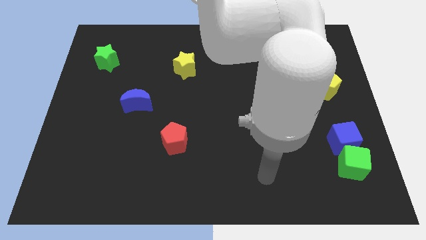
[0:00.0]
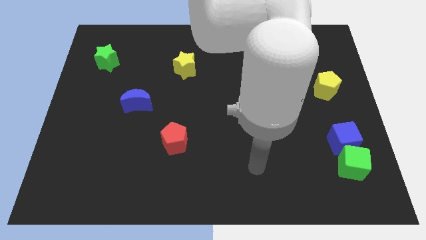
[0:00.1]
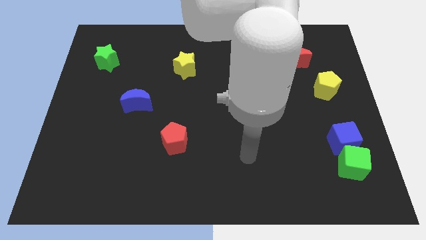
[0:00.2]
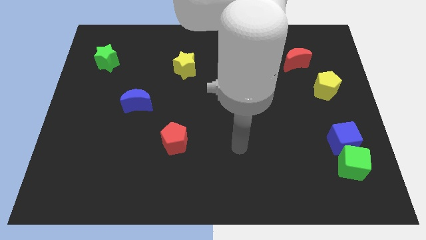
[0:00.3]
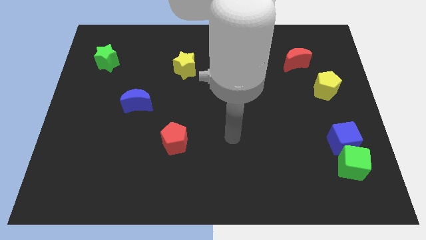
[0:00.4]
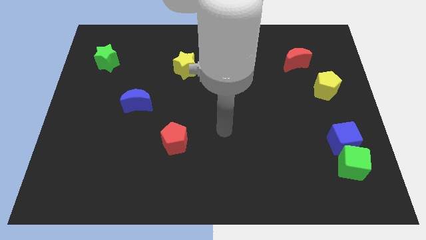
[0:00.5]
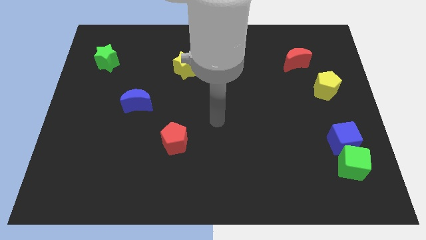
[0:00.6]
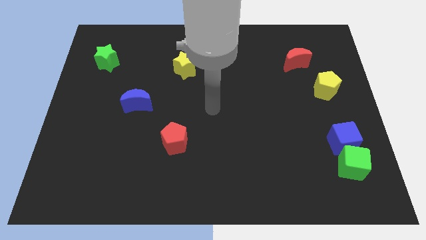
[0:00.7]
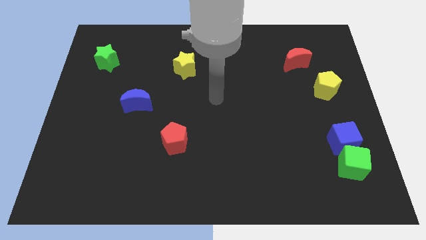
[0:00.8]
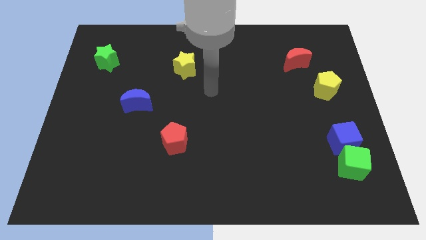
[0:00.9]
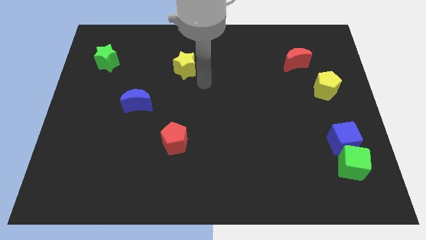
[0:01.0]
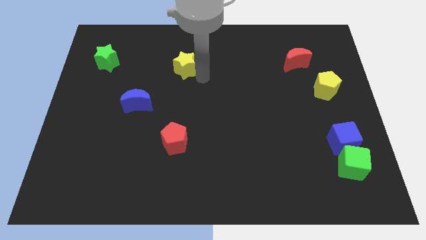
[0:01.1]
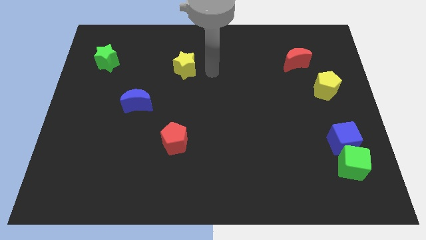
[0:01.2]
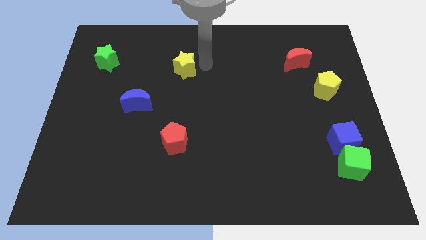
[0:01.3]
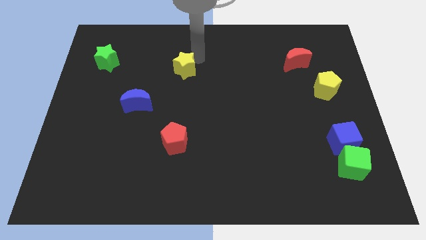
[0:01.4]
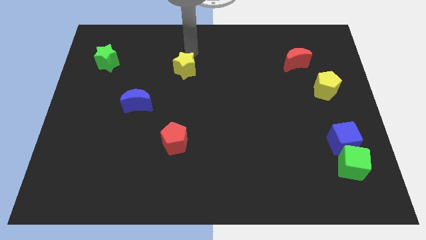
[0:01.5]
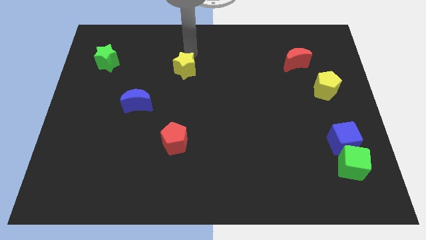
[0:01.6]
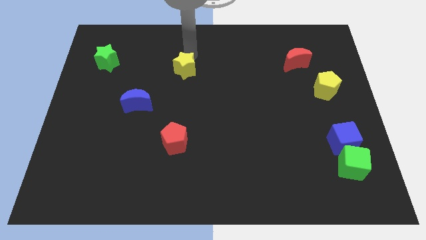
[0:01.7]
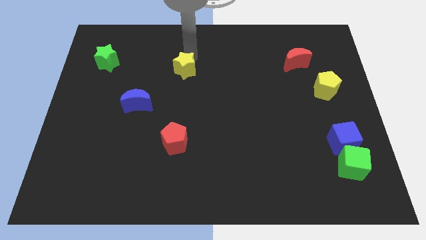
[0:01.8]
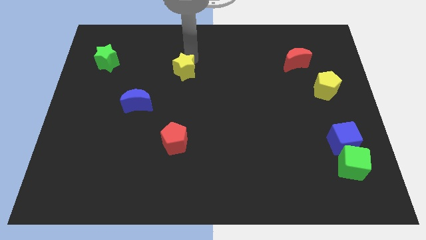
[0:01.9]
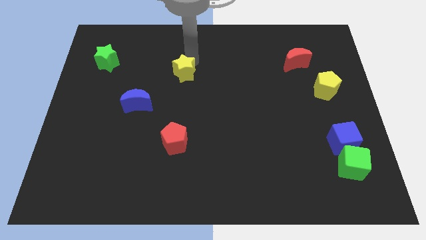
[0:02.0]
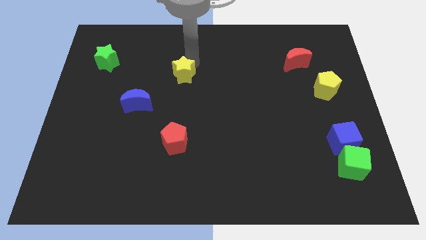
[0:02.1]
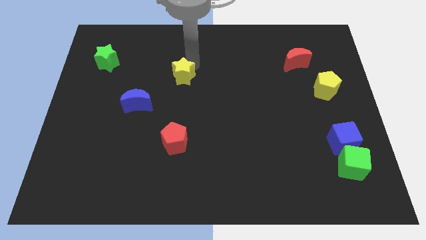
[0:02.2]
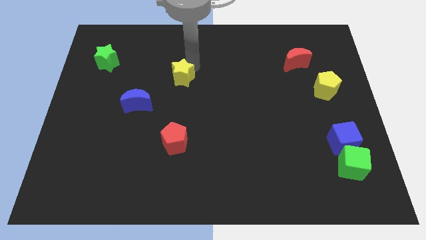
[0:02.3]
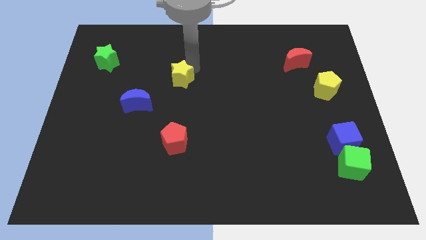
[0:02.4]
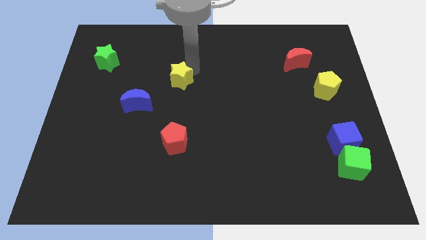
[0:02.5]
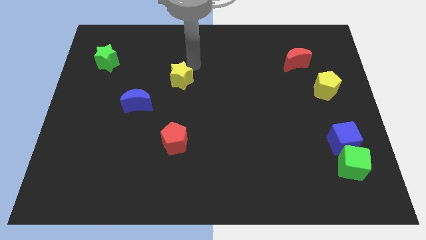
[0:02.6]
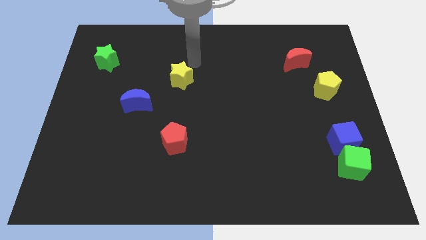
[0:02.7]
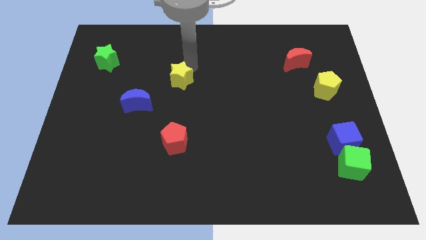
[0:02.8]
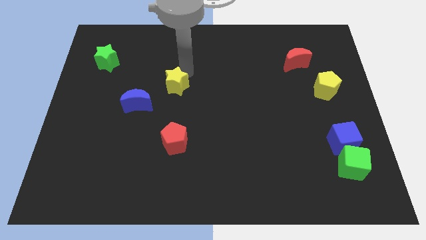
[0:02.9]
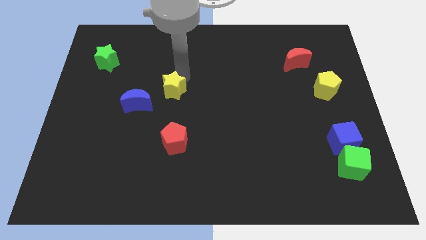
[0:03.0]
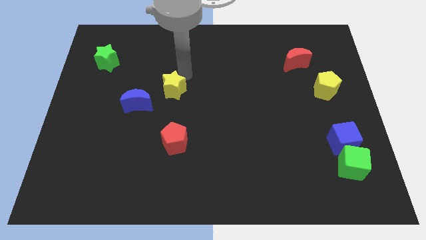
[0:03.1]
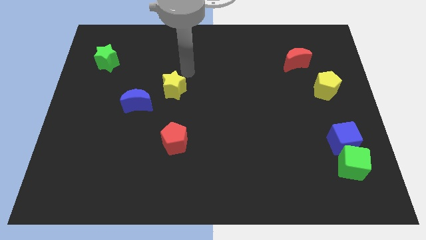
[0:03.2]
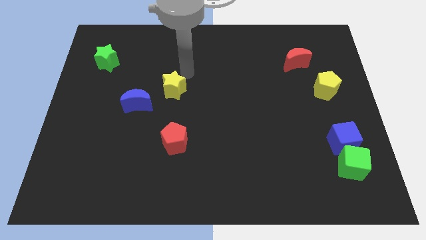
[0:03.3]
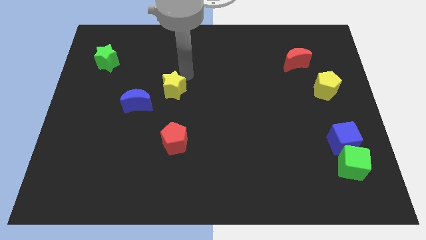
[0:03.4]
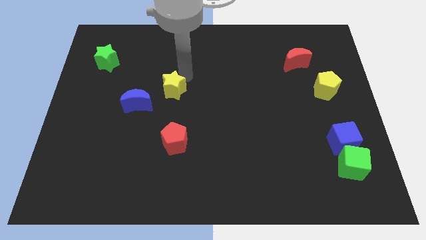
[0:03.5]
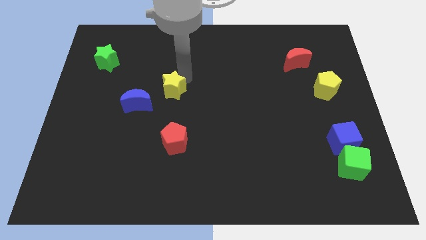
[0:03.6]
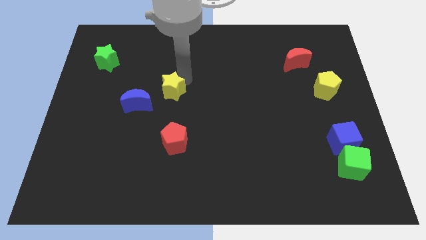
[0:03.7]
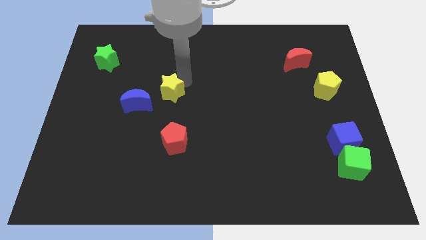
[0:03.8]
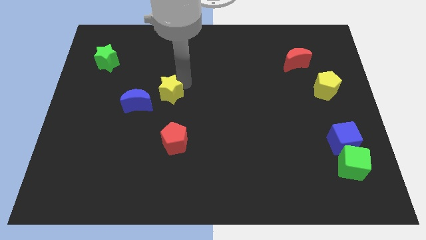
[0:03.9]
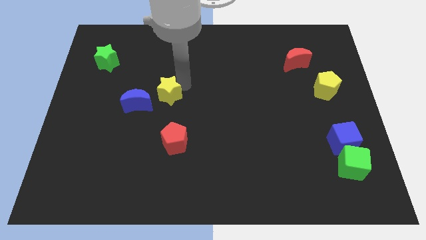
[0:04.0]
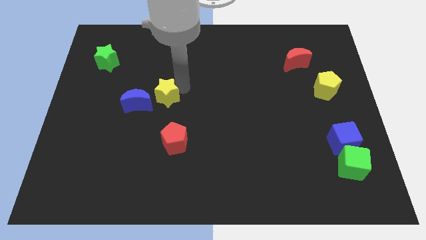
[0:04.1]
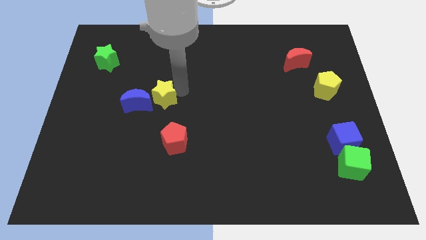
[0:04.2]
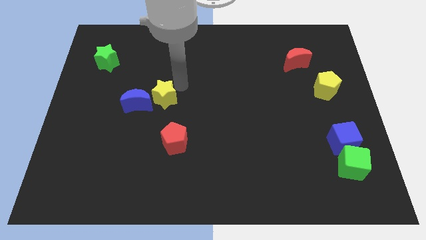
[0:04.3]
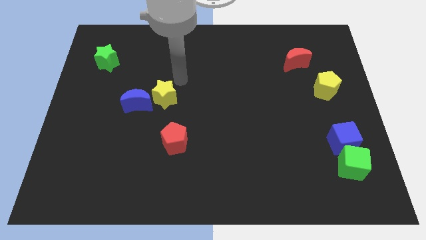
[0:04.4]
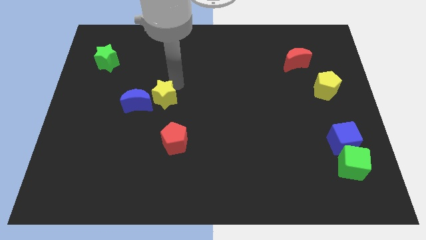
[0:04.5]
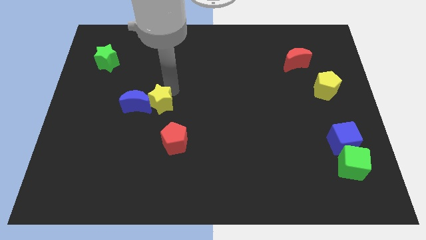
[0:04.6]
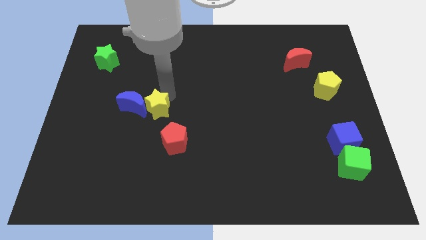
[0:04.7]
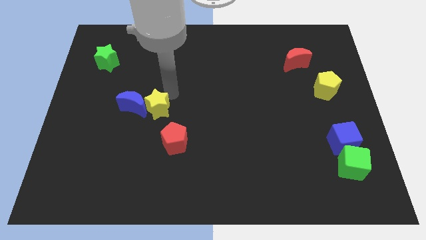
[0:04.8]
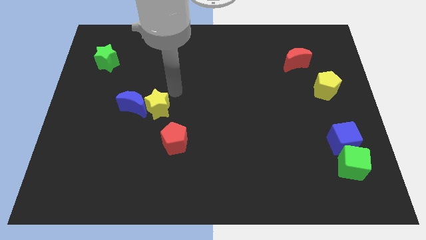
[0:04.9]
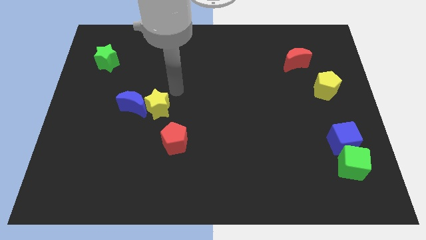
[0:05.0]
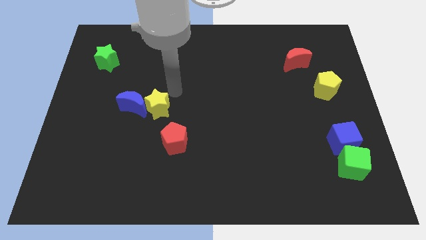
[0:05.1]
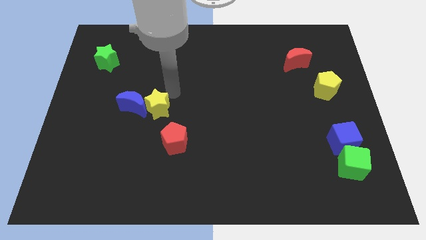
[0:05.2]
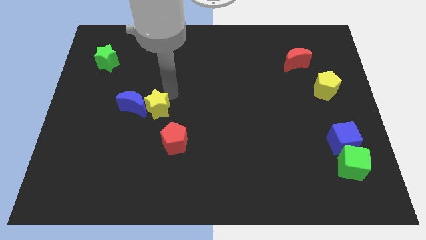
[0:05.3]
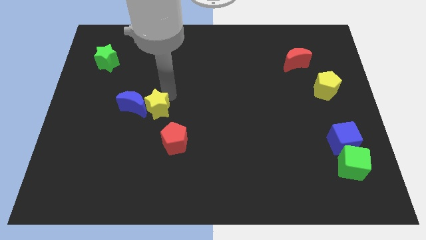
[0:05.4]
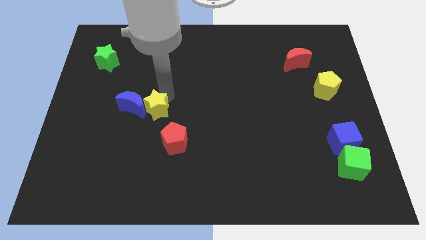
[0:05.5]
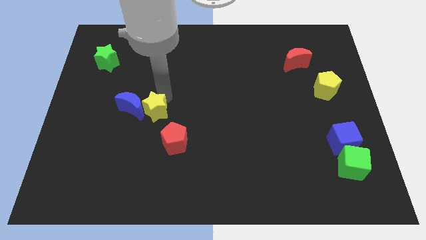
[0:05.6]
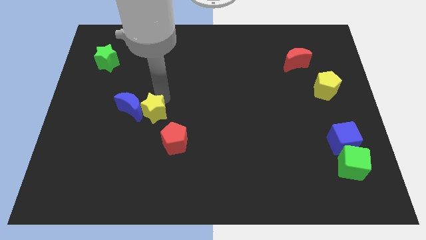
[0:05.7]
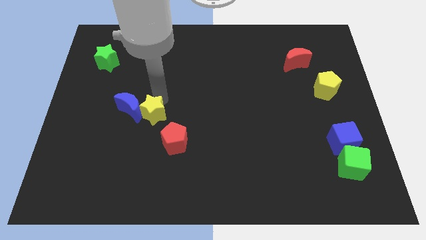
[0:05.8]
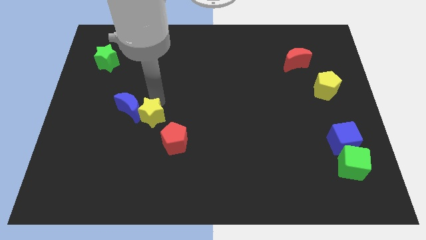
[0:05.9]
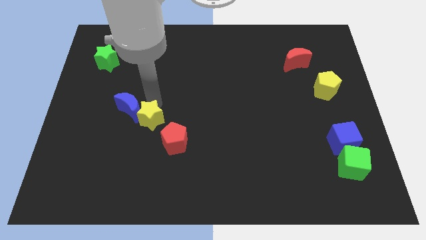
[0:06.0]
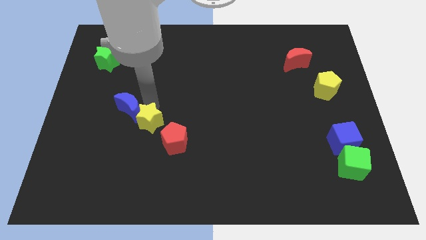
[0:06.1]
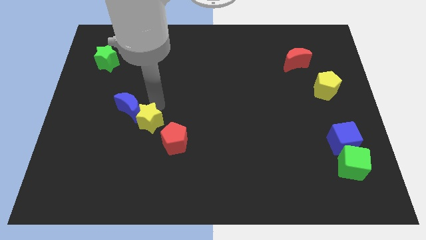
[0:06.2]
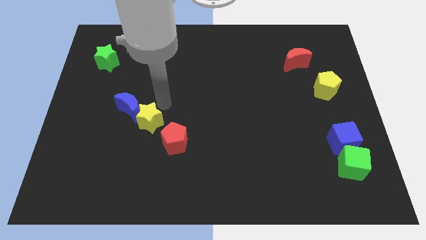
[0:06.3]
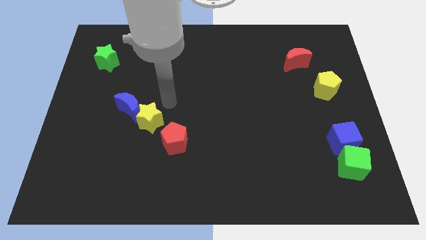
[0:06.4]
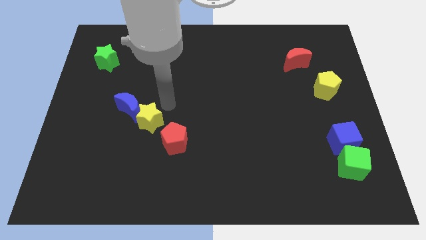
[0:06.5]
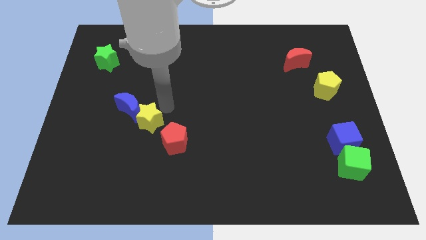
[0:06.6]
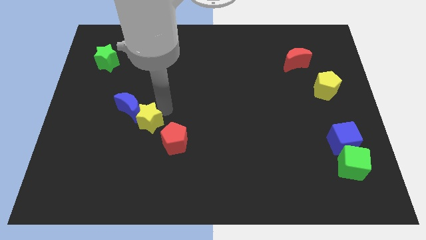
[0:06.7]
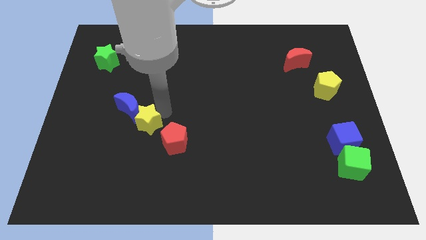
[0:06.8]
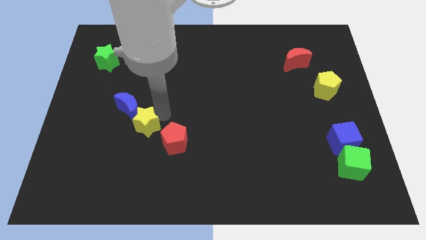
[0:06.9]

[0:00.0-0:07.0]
put the yellow star just left of the red pentagon
